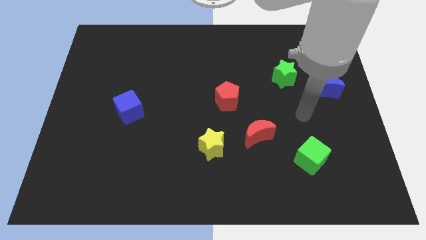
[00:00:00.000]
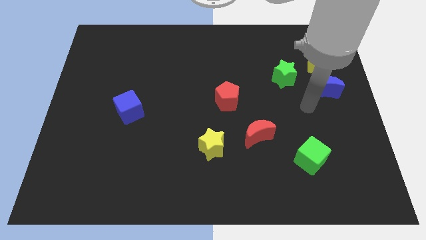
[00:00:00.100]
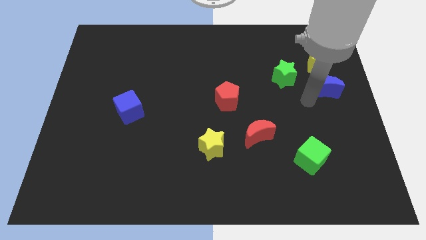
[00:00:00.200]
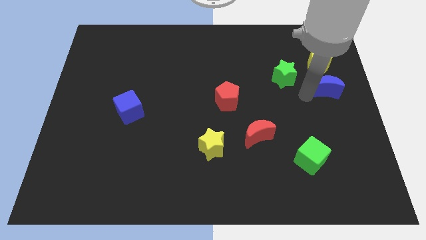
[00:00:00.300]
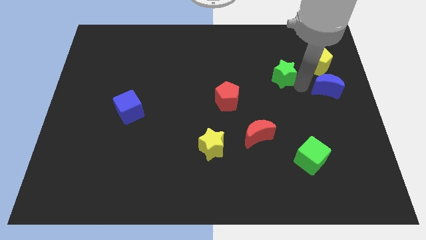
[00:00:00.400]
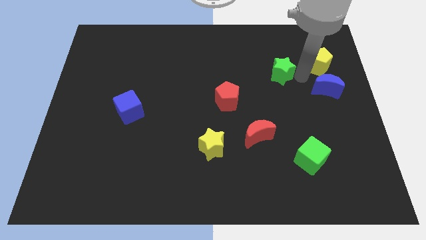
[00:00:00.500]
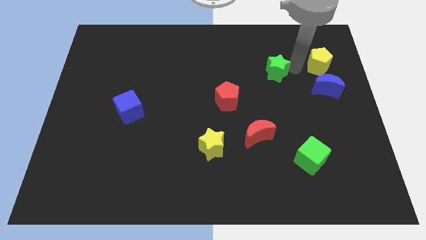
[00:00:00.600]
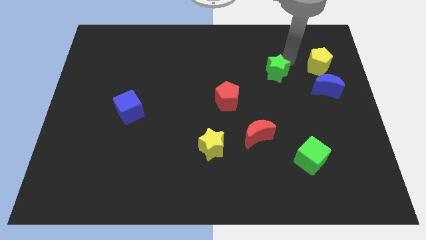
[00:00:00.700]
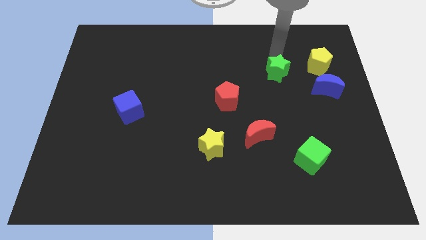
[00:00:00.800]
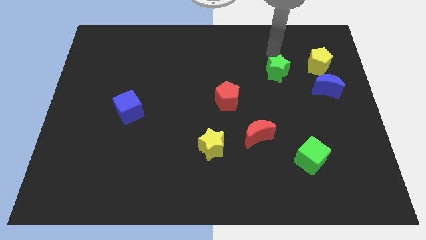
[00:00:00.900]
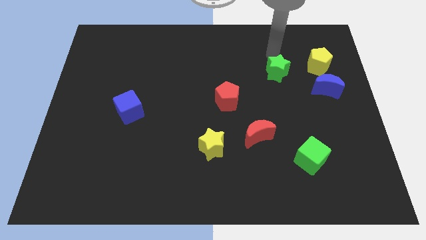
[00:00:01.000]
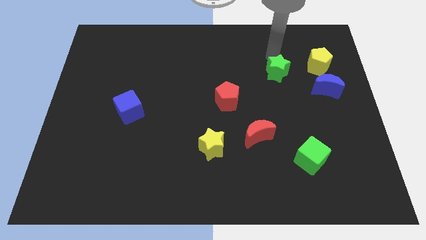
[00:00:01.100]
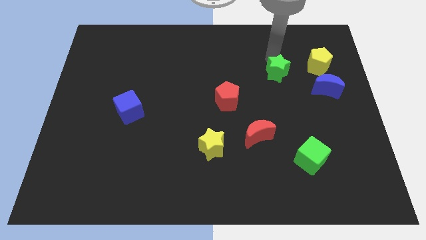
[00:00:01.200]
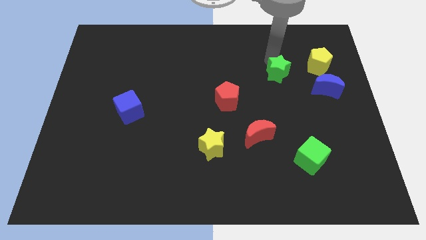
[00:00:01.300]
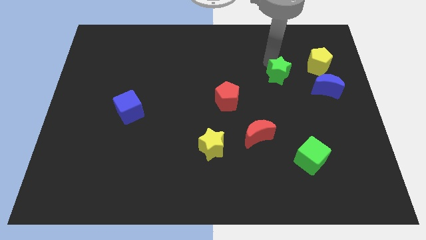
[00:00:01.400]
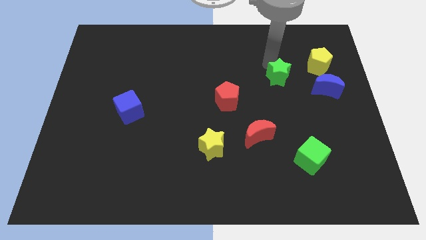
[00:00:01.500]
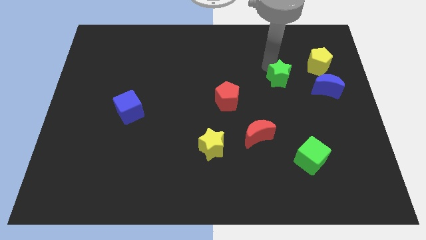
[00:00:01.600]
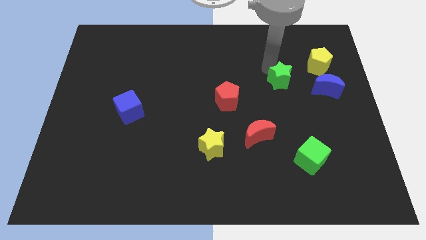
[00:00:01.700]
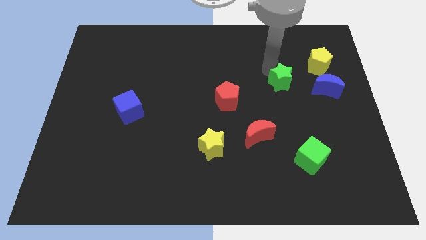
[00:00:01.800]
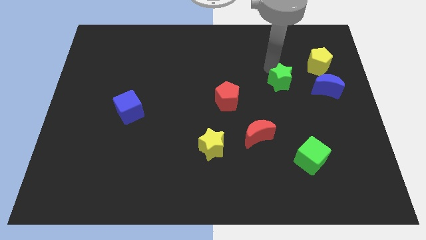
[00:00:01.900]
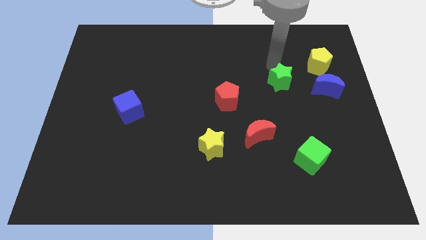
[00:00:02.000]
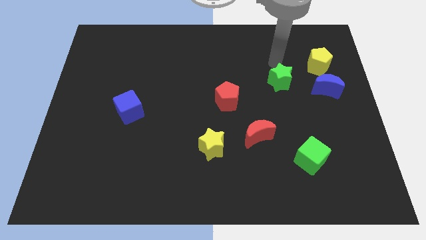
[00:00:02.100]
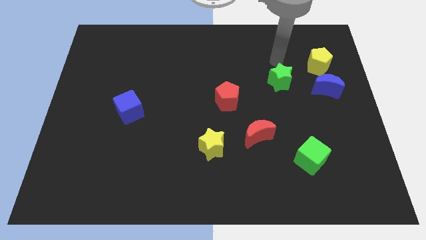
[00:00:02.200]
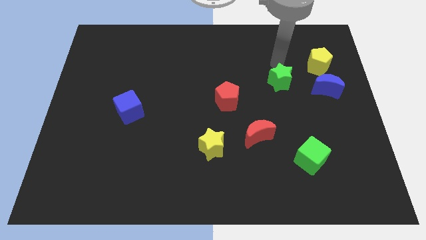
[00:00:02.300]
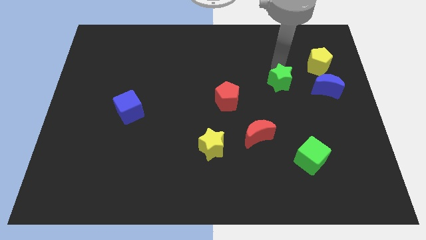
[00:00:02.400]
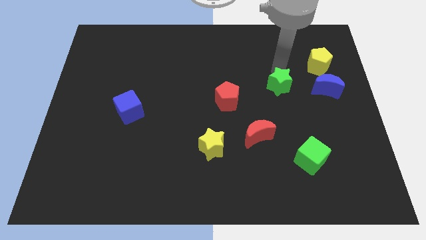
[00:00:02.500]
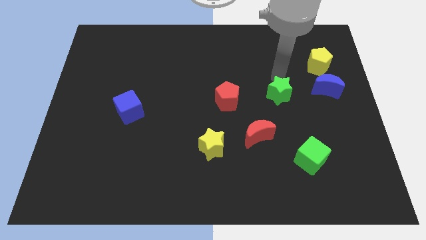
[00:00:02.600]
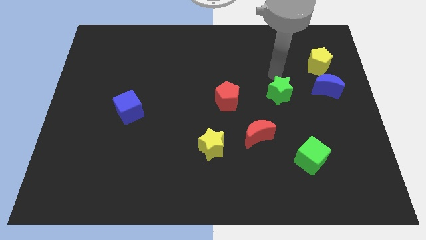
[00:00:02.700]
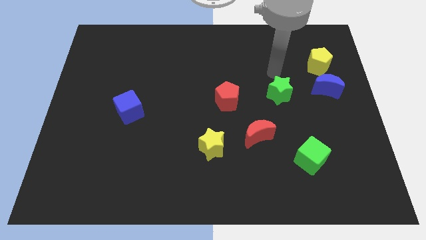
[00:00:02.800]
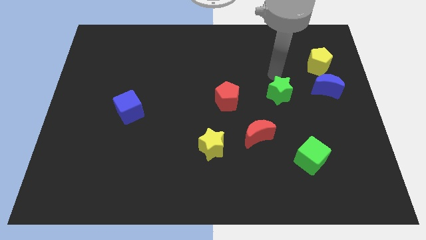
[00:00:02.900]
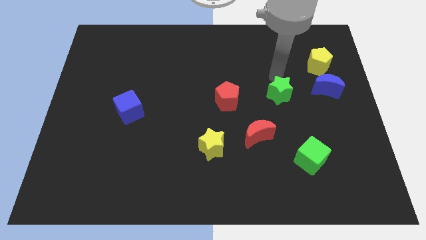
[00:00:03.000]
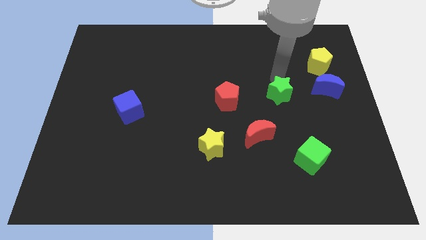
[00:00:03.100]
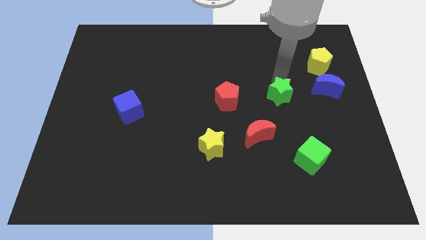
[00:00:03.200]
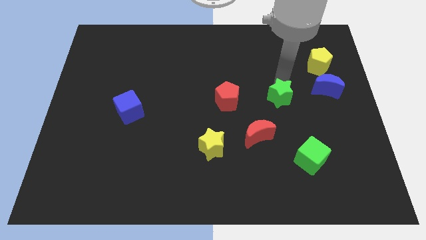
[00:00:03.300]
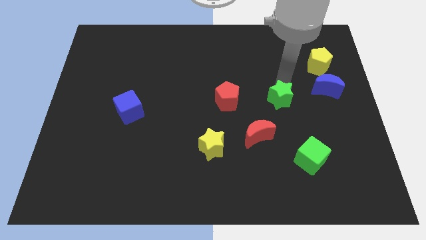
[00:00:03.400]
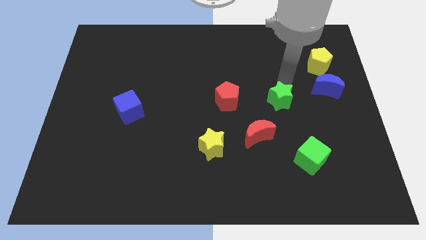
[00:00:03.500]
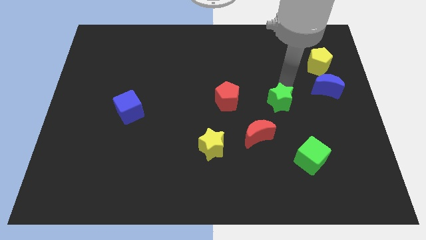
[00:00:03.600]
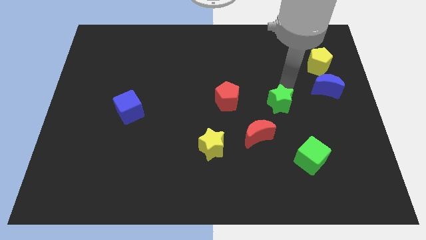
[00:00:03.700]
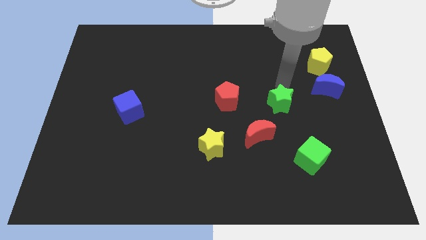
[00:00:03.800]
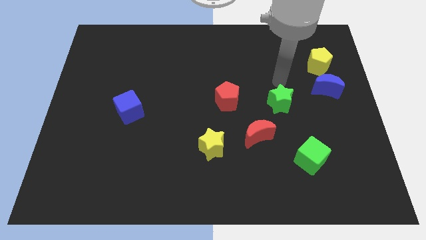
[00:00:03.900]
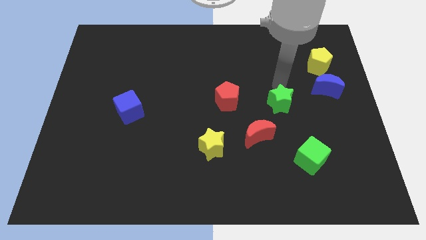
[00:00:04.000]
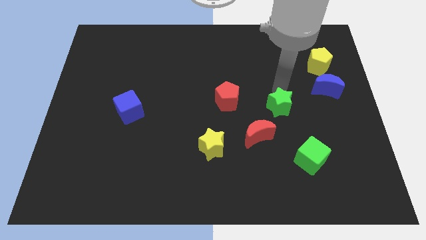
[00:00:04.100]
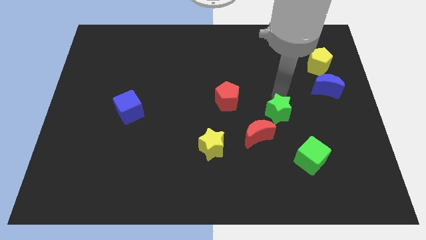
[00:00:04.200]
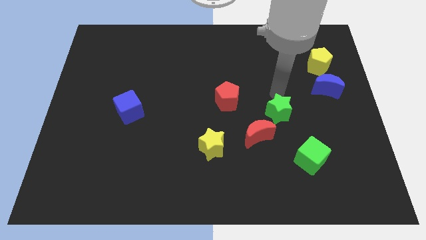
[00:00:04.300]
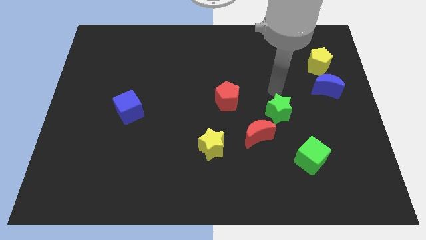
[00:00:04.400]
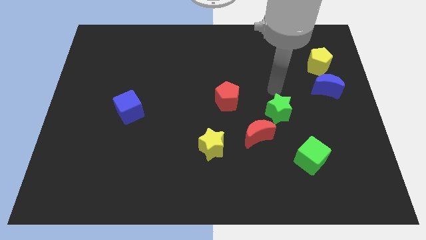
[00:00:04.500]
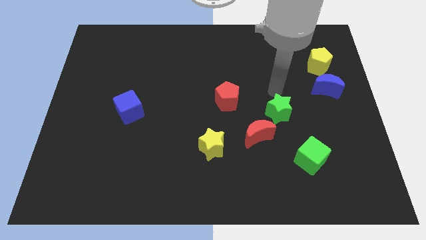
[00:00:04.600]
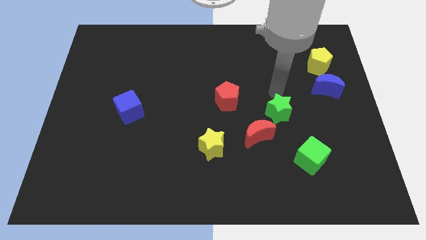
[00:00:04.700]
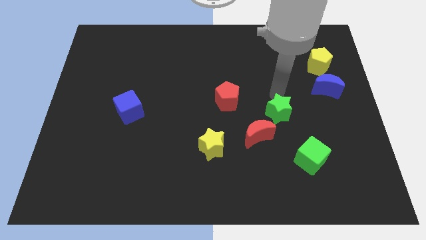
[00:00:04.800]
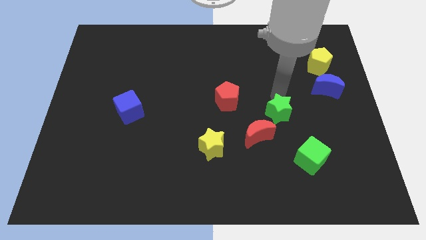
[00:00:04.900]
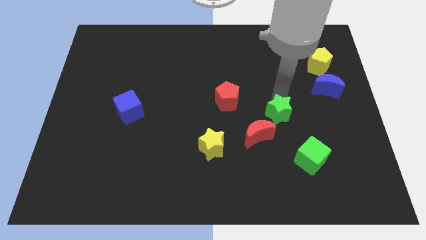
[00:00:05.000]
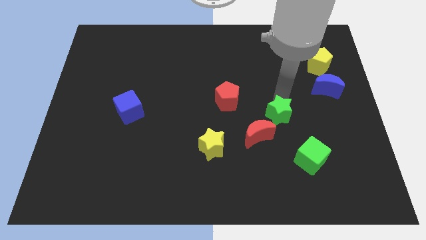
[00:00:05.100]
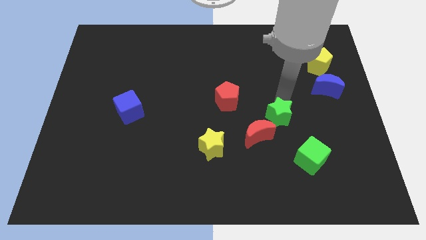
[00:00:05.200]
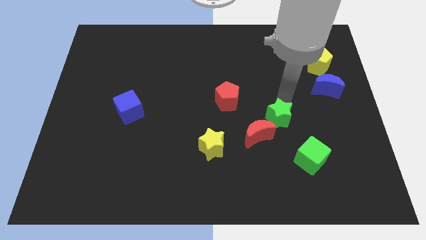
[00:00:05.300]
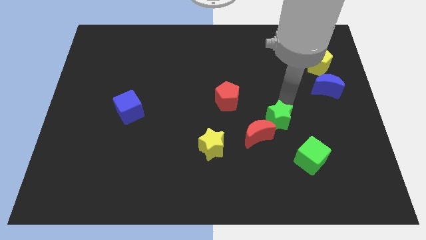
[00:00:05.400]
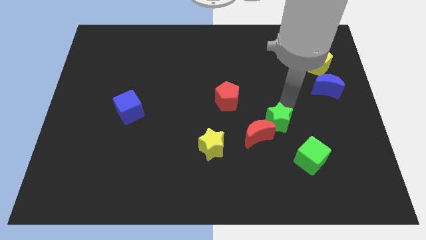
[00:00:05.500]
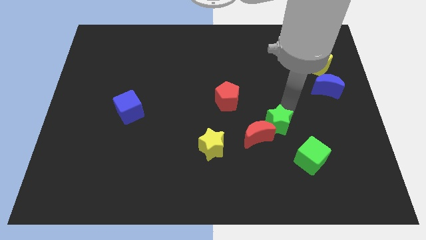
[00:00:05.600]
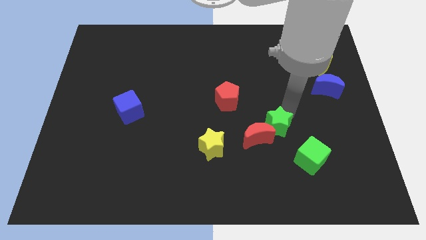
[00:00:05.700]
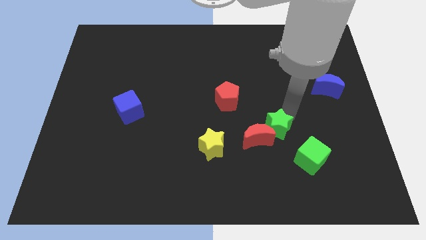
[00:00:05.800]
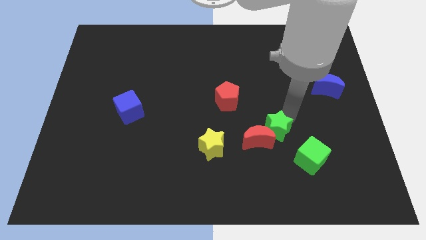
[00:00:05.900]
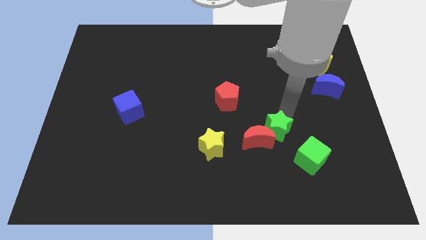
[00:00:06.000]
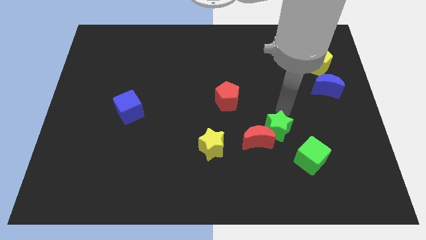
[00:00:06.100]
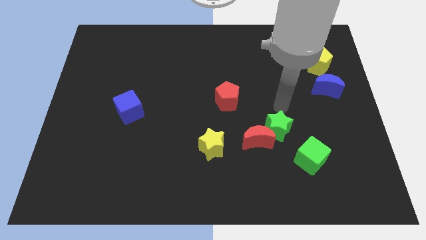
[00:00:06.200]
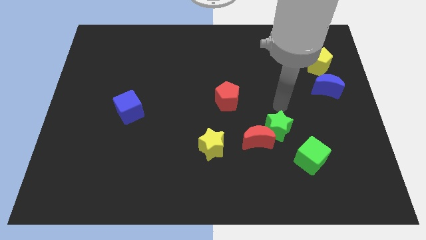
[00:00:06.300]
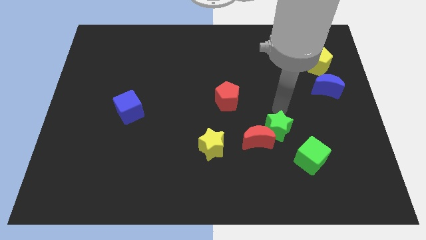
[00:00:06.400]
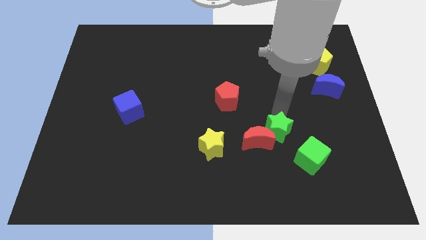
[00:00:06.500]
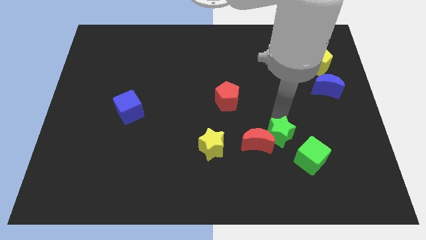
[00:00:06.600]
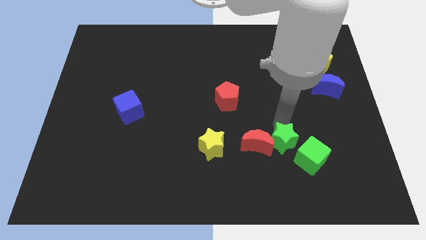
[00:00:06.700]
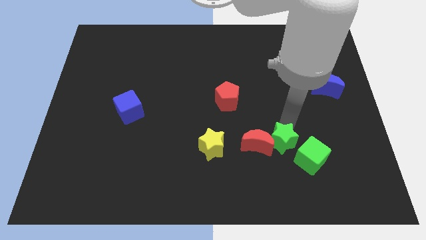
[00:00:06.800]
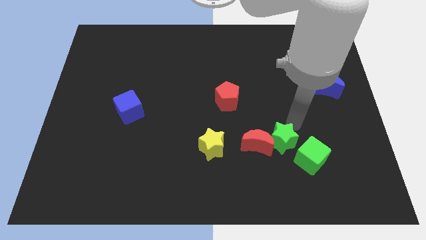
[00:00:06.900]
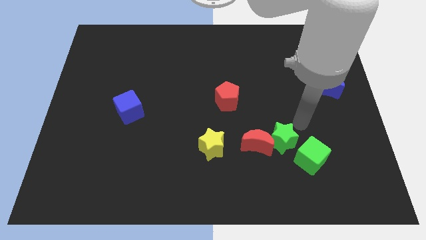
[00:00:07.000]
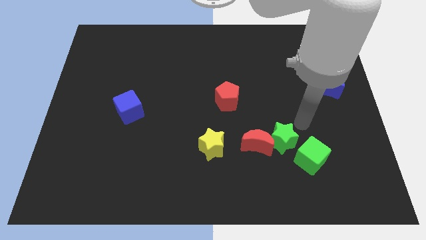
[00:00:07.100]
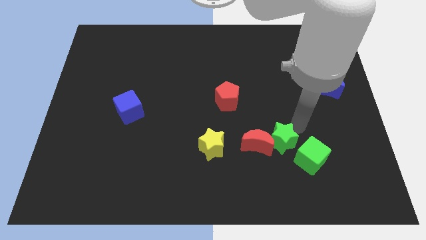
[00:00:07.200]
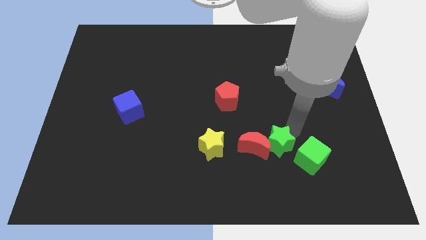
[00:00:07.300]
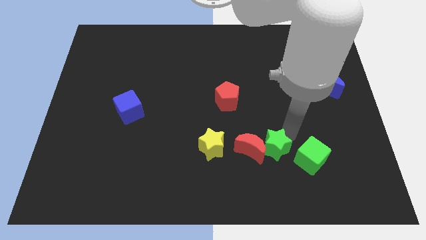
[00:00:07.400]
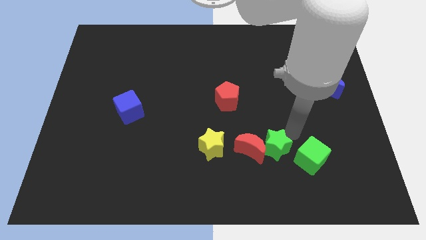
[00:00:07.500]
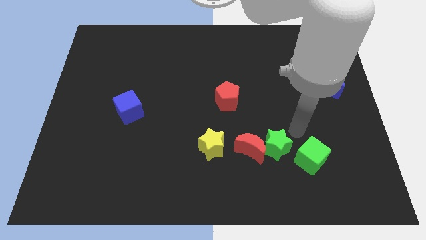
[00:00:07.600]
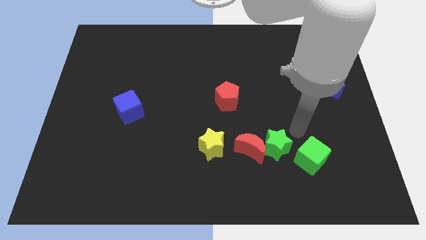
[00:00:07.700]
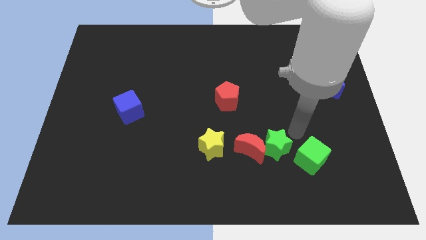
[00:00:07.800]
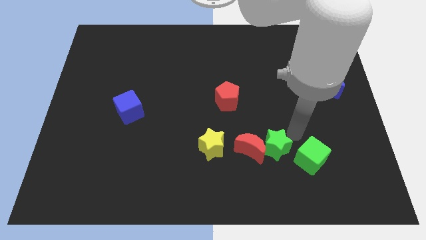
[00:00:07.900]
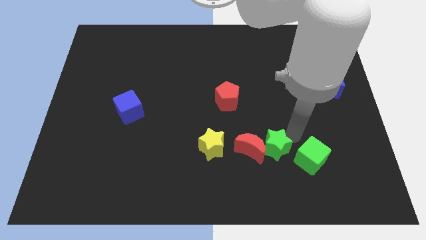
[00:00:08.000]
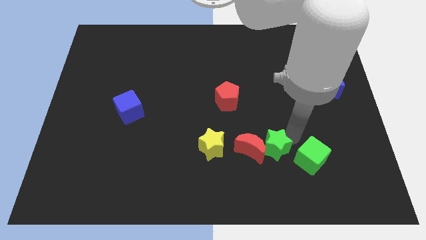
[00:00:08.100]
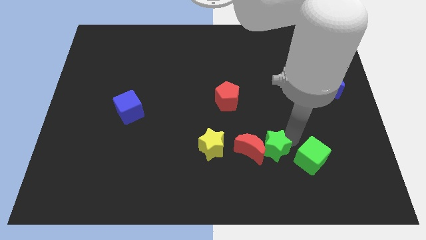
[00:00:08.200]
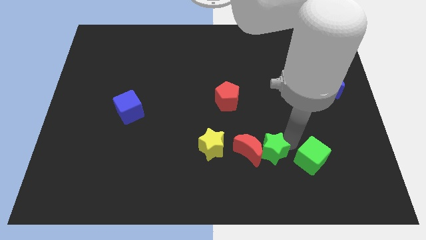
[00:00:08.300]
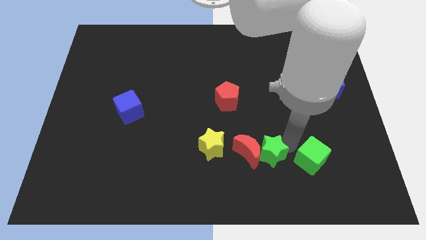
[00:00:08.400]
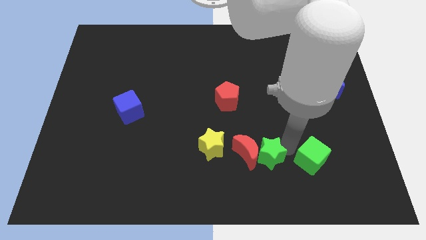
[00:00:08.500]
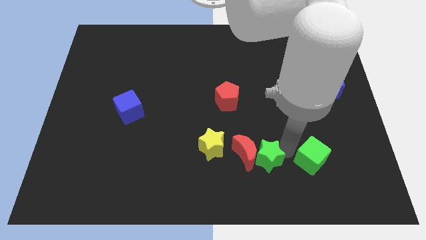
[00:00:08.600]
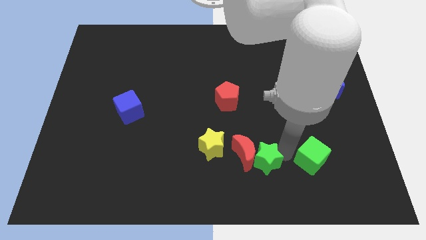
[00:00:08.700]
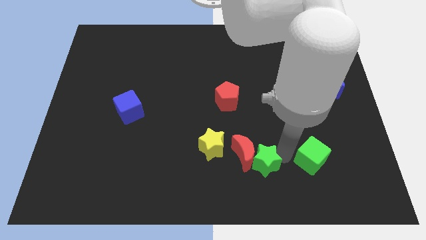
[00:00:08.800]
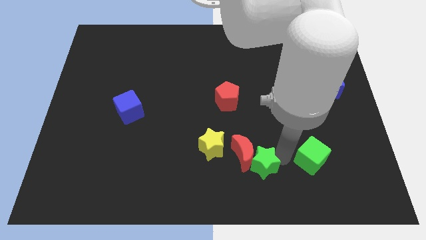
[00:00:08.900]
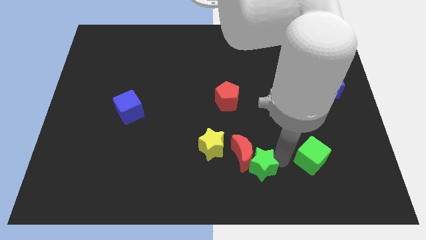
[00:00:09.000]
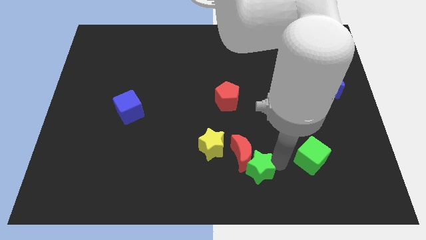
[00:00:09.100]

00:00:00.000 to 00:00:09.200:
push the green star to the bottom side
